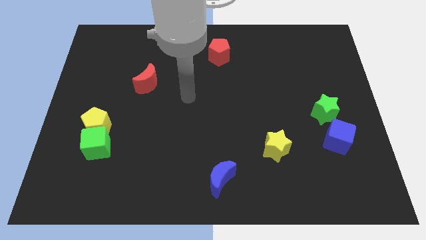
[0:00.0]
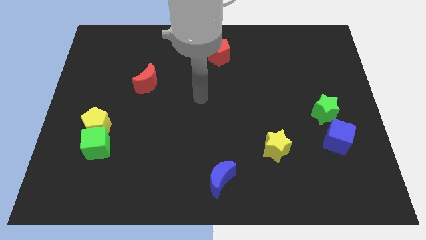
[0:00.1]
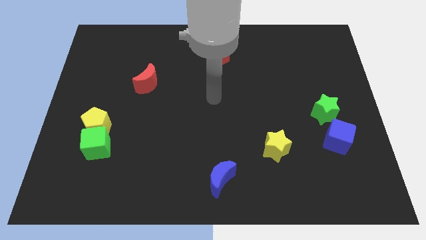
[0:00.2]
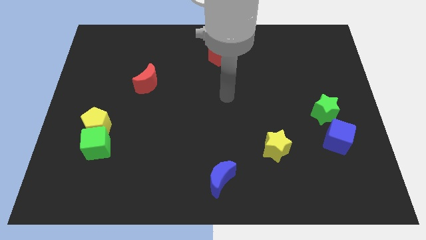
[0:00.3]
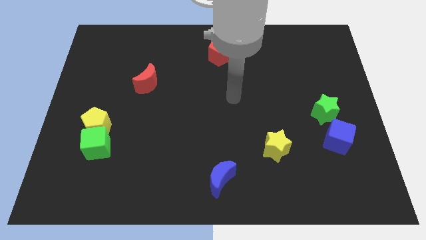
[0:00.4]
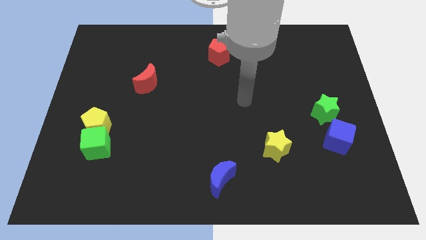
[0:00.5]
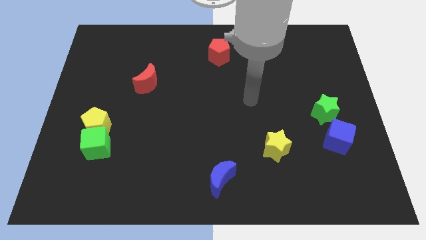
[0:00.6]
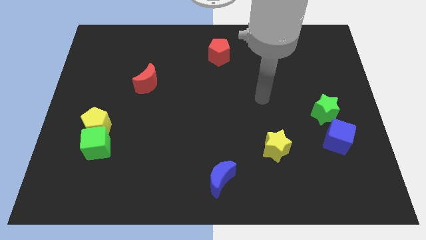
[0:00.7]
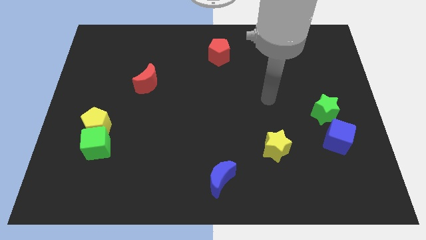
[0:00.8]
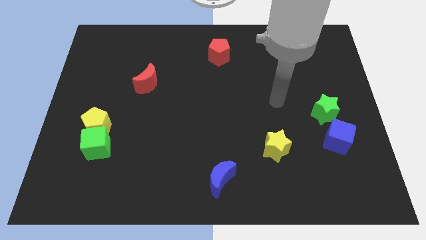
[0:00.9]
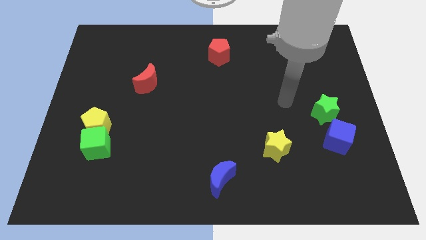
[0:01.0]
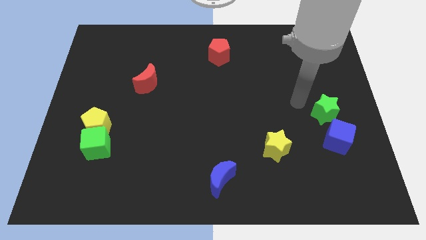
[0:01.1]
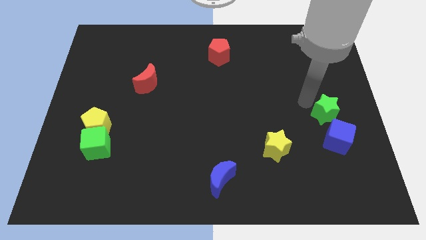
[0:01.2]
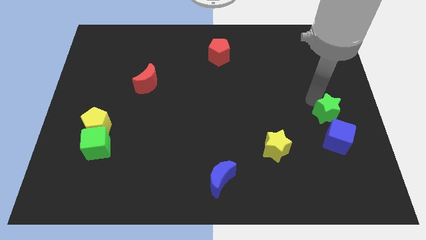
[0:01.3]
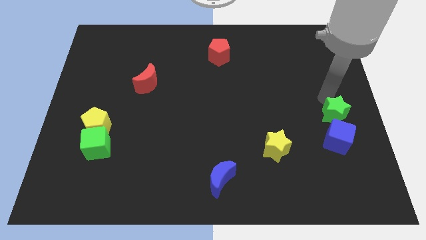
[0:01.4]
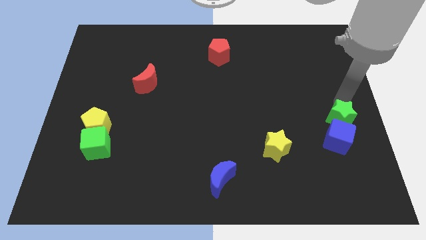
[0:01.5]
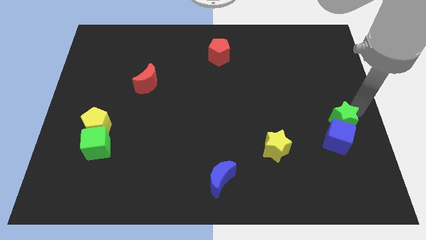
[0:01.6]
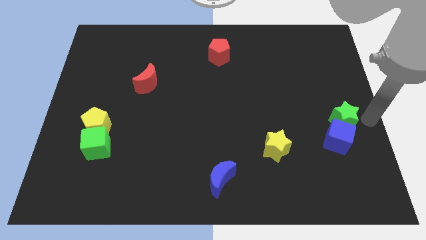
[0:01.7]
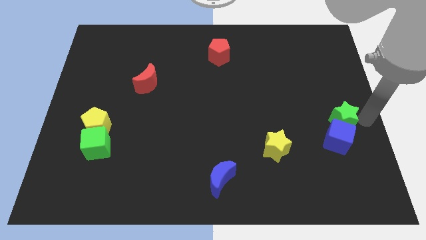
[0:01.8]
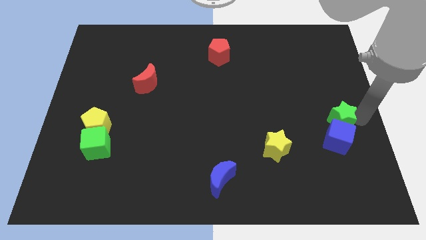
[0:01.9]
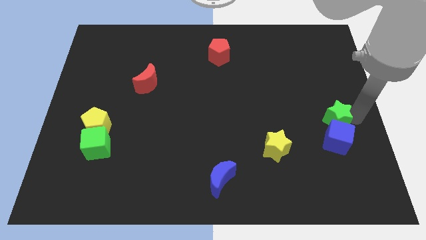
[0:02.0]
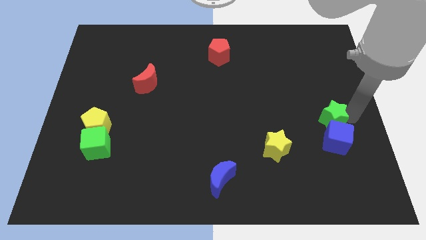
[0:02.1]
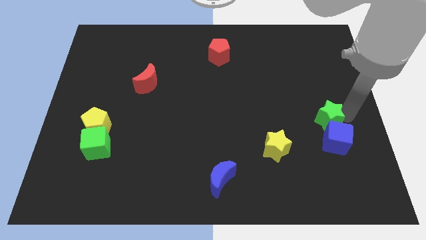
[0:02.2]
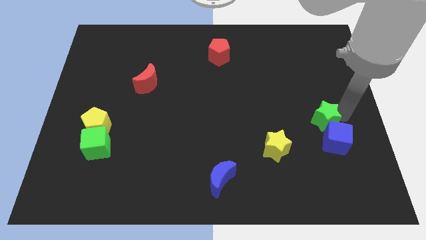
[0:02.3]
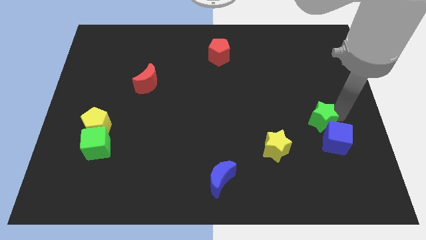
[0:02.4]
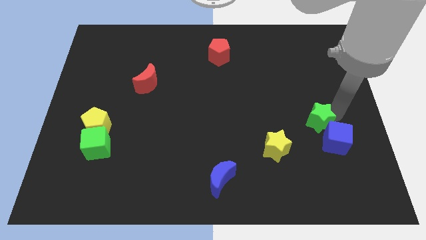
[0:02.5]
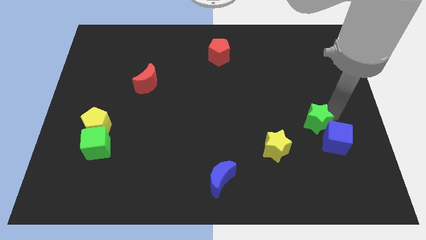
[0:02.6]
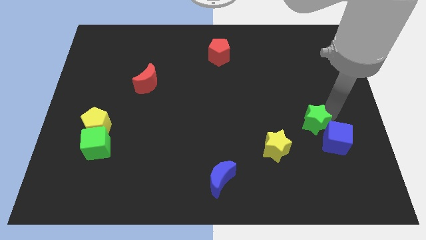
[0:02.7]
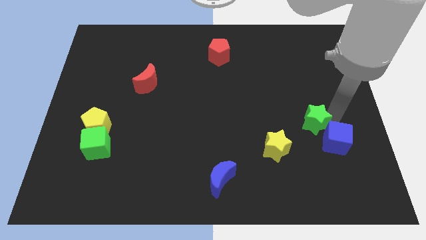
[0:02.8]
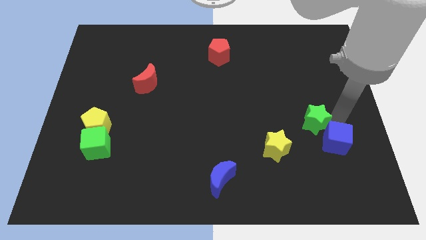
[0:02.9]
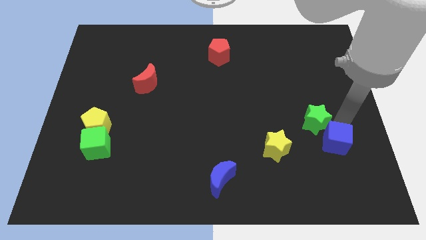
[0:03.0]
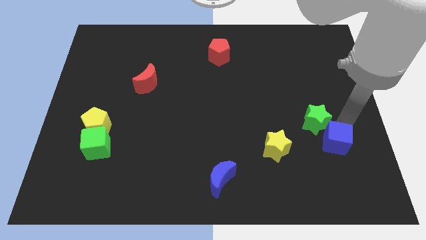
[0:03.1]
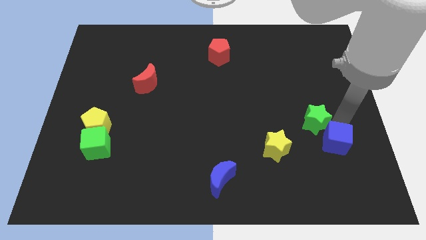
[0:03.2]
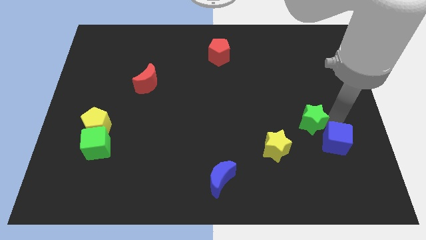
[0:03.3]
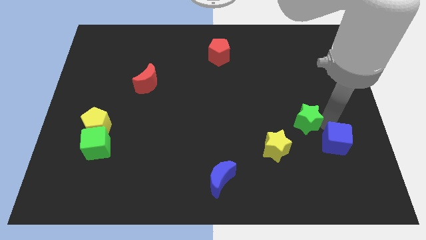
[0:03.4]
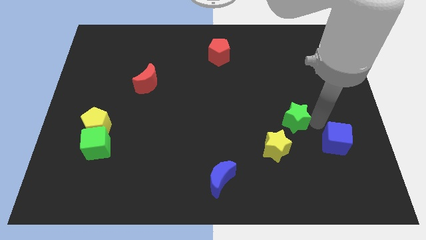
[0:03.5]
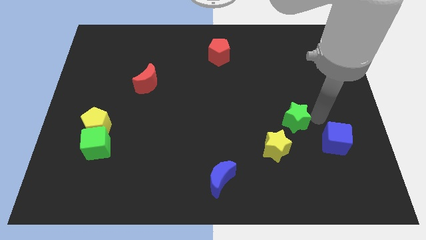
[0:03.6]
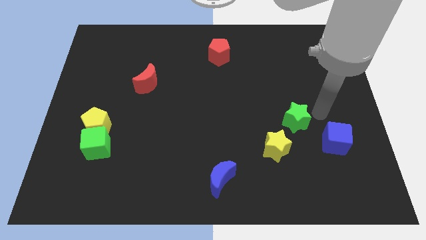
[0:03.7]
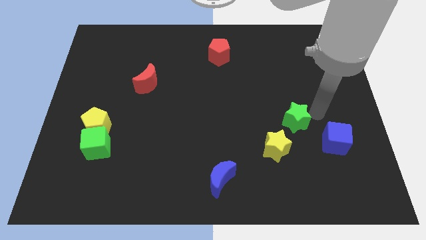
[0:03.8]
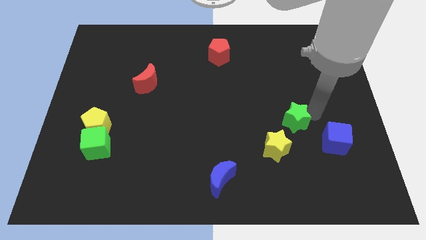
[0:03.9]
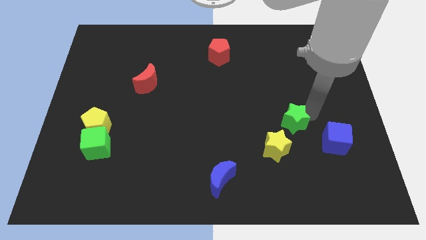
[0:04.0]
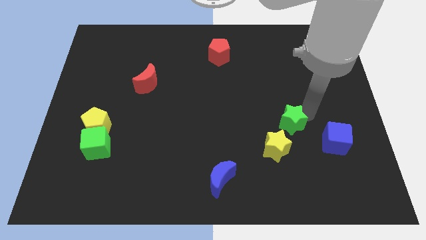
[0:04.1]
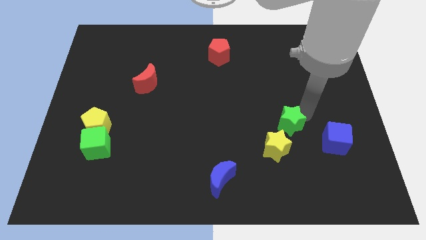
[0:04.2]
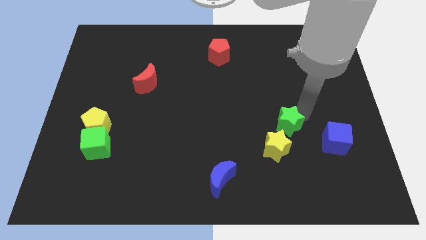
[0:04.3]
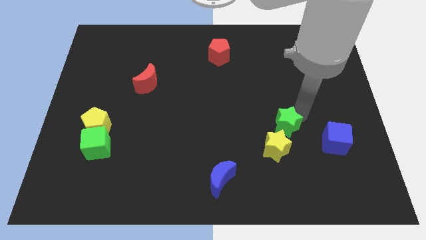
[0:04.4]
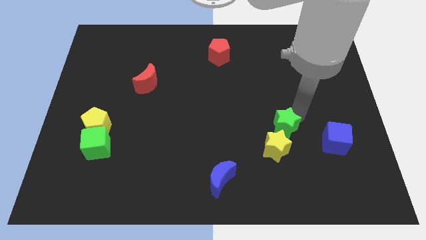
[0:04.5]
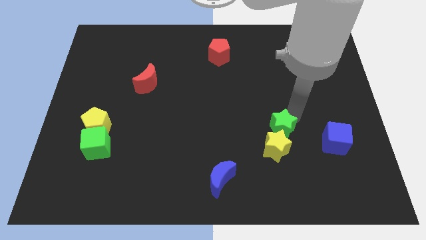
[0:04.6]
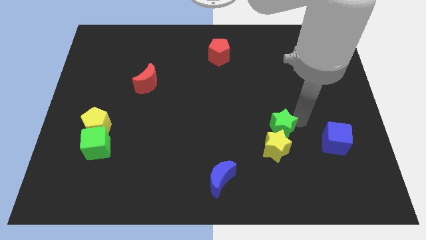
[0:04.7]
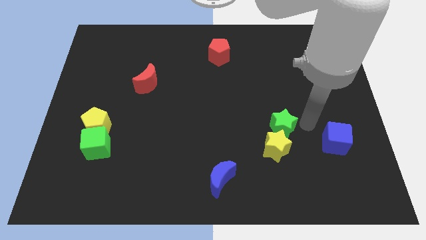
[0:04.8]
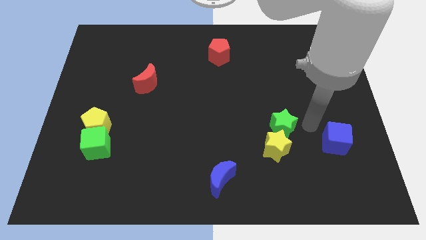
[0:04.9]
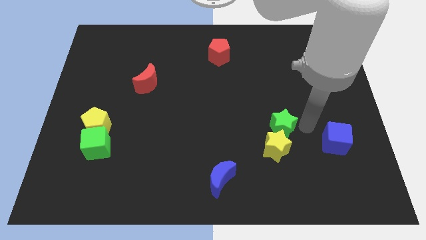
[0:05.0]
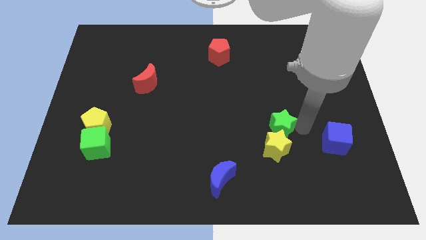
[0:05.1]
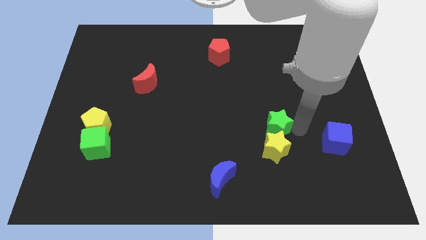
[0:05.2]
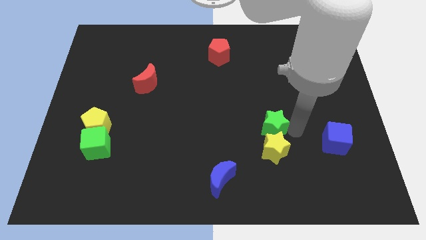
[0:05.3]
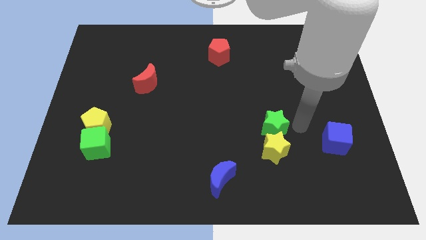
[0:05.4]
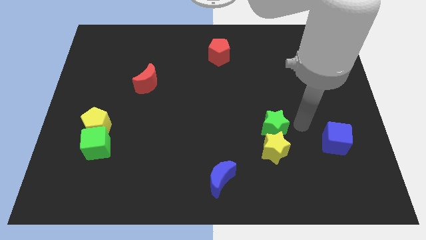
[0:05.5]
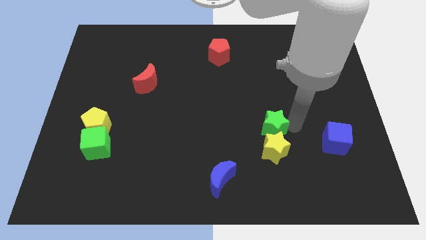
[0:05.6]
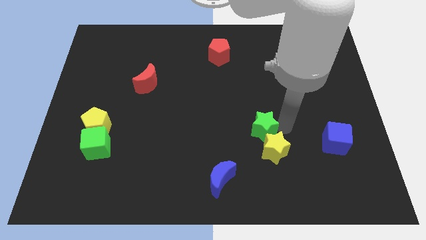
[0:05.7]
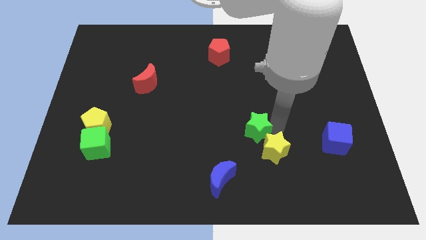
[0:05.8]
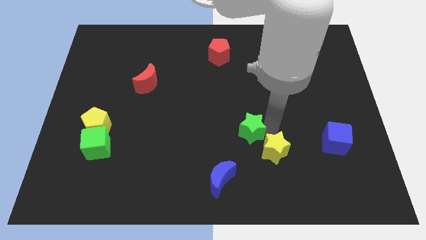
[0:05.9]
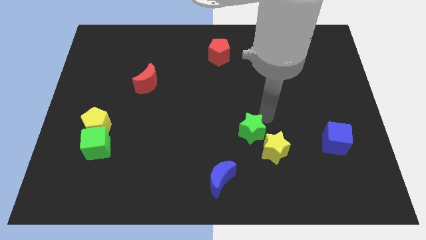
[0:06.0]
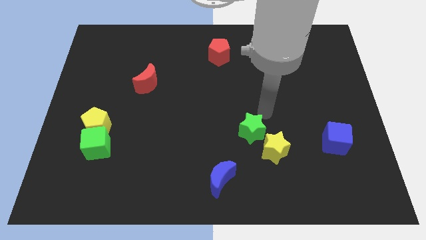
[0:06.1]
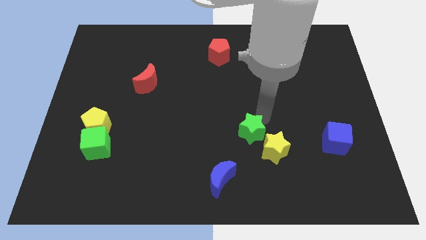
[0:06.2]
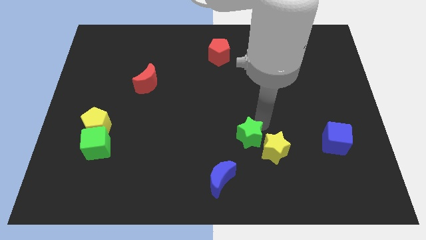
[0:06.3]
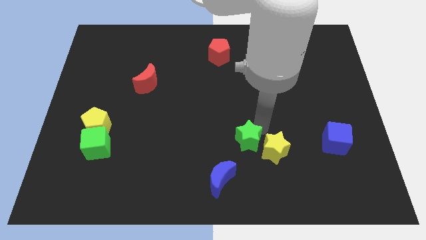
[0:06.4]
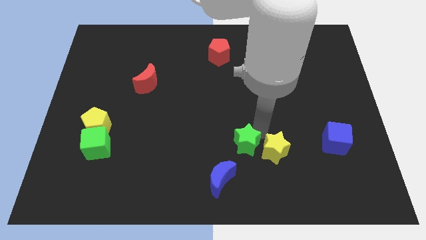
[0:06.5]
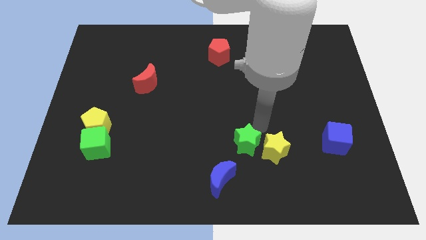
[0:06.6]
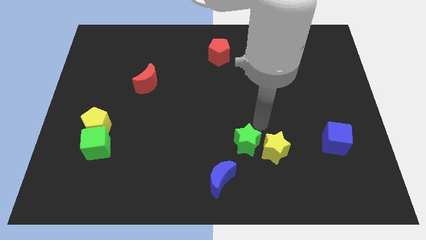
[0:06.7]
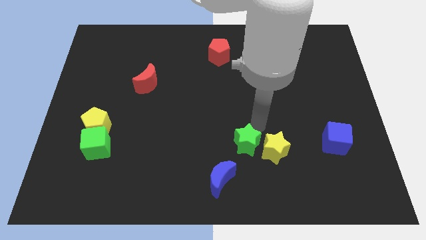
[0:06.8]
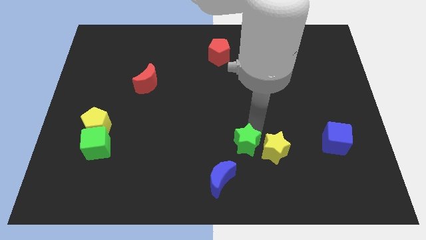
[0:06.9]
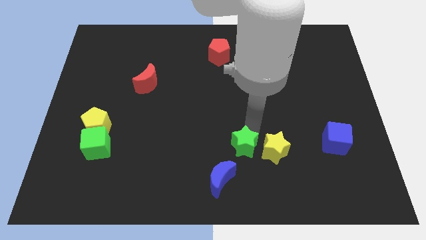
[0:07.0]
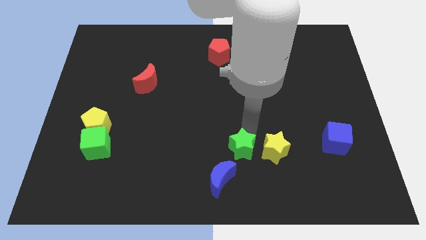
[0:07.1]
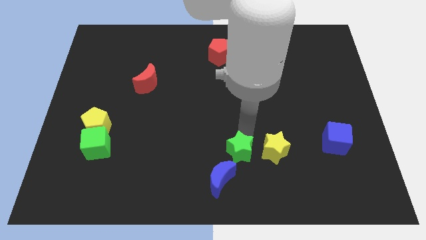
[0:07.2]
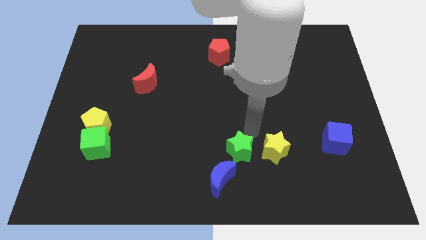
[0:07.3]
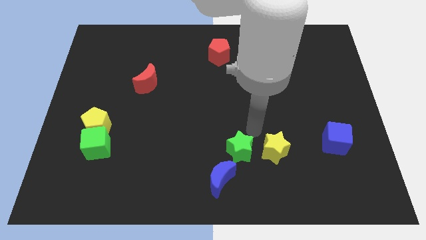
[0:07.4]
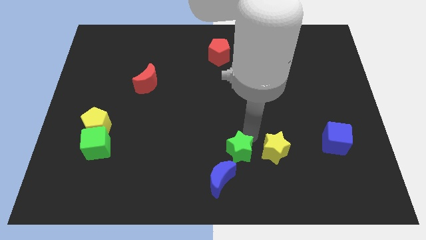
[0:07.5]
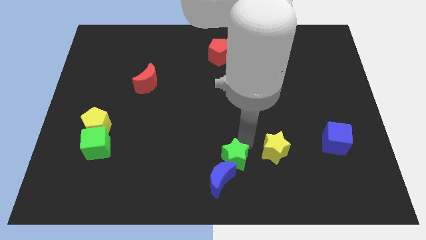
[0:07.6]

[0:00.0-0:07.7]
slide the green star towards the blue moon
